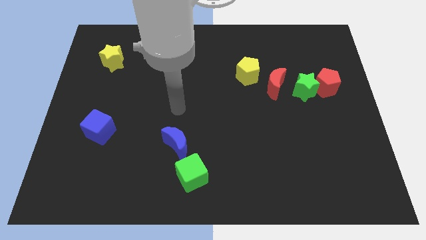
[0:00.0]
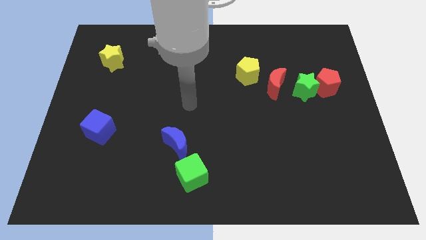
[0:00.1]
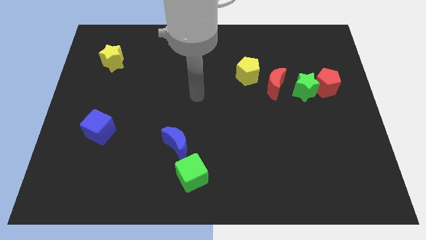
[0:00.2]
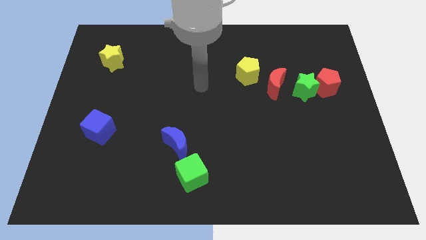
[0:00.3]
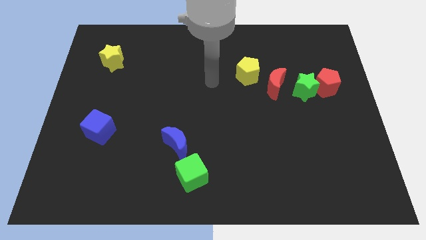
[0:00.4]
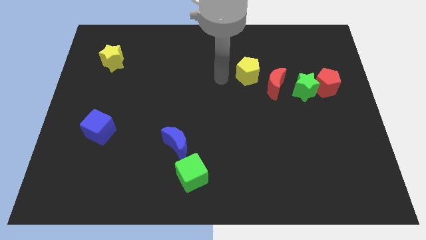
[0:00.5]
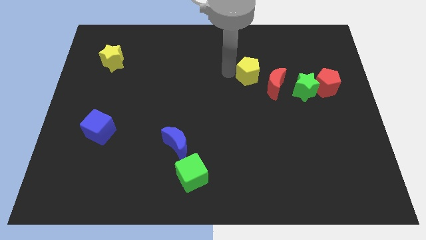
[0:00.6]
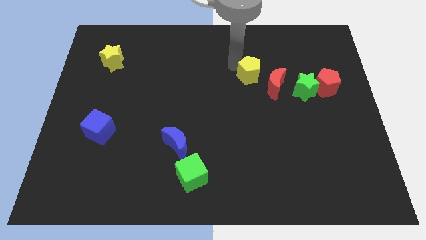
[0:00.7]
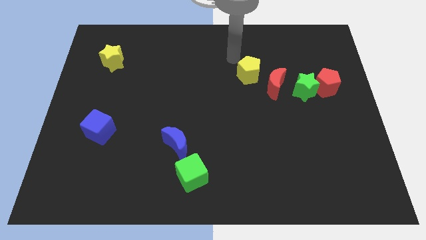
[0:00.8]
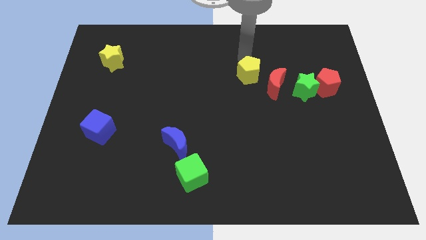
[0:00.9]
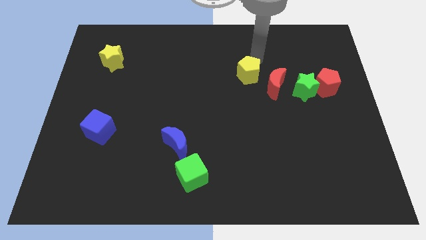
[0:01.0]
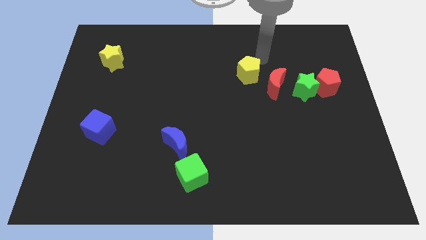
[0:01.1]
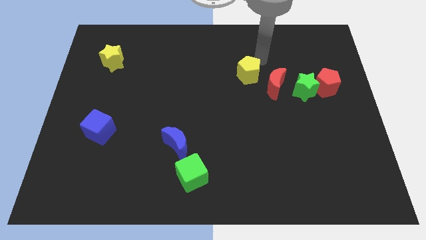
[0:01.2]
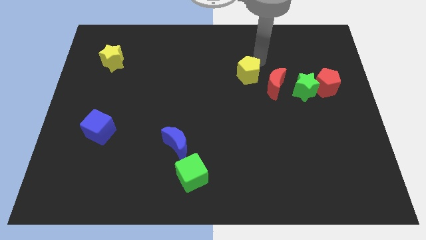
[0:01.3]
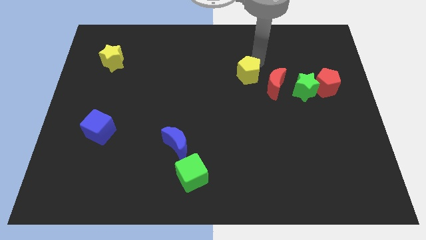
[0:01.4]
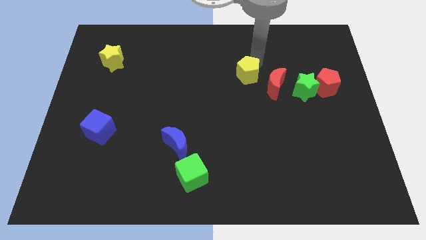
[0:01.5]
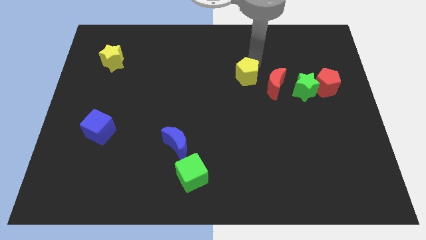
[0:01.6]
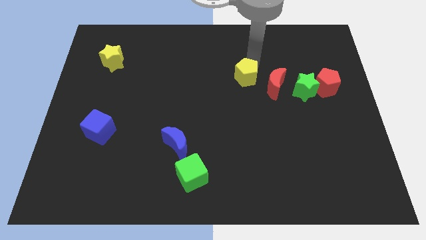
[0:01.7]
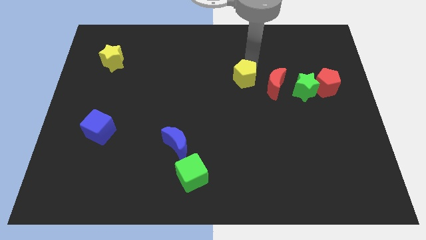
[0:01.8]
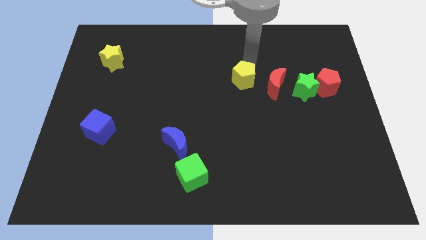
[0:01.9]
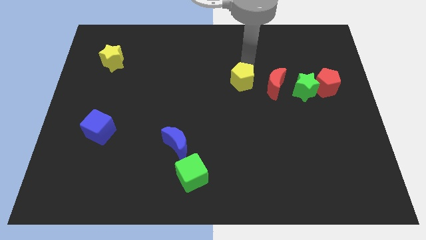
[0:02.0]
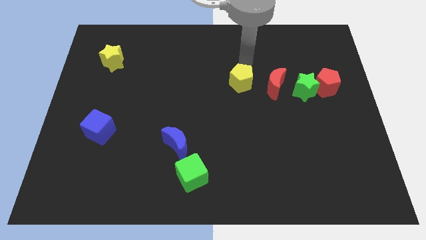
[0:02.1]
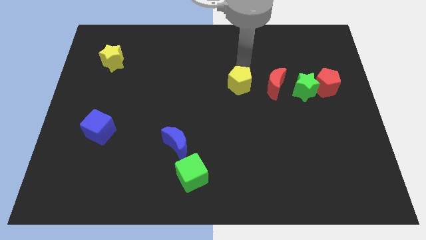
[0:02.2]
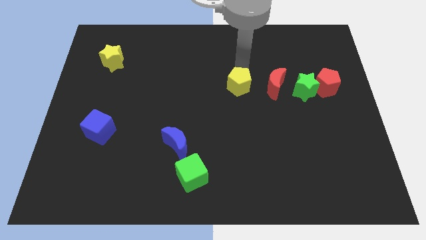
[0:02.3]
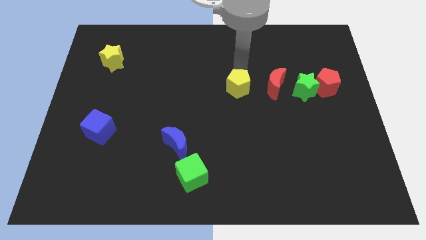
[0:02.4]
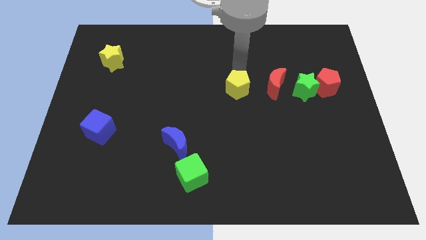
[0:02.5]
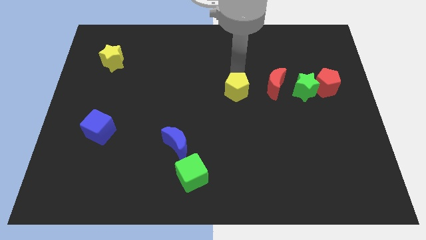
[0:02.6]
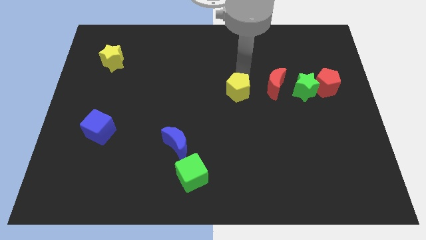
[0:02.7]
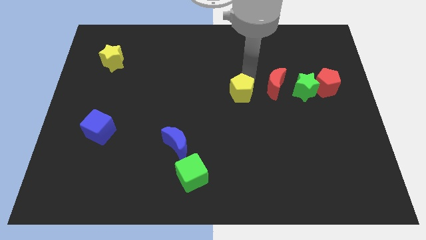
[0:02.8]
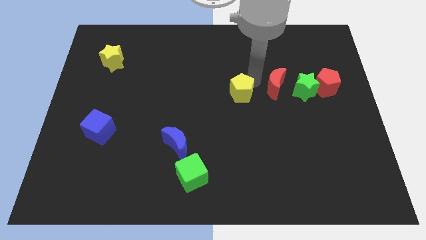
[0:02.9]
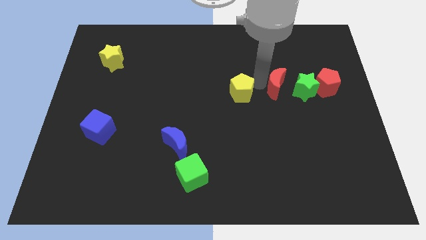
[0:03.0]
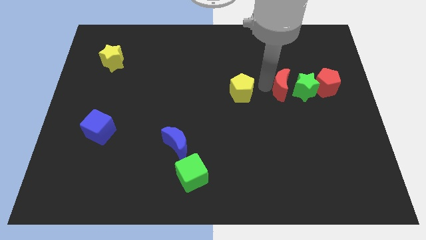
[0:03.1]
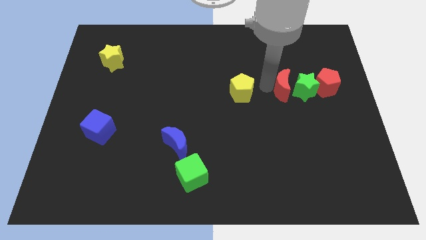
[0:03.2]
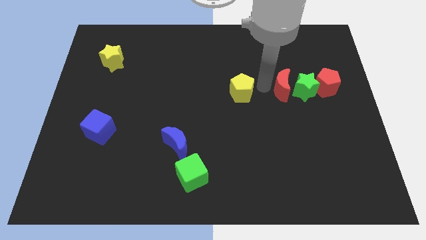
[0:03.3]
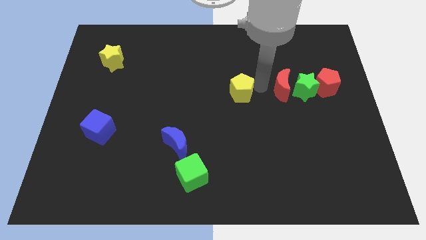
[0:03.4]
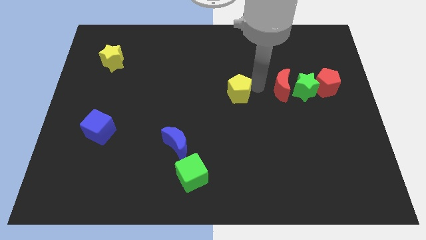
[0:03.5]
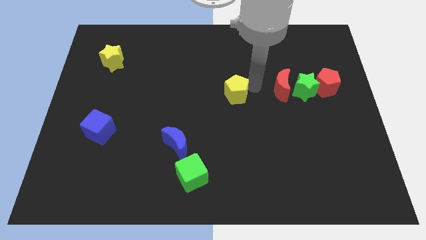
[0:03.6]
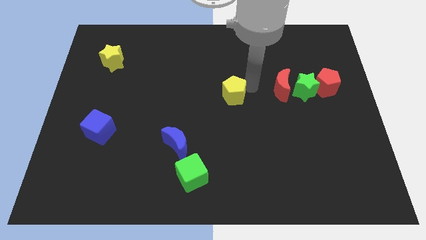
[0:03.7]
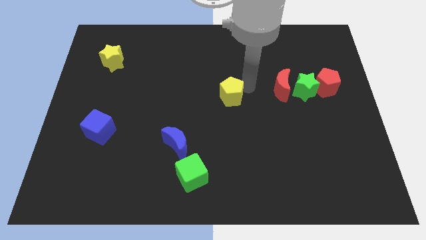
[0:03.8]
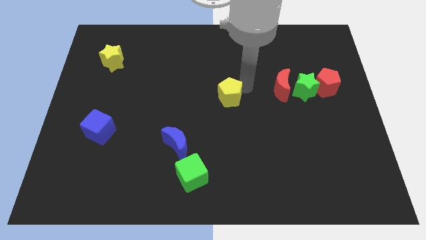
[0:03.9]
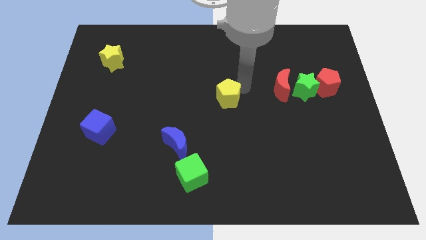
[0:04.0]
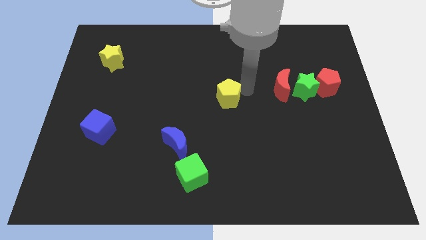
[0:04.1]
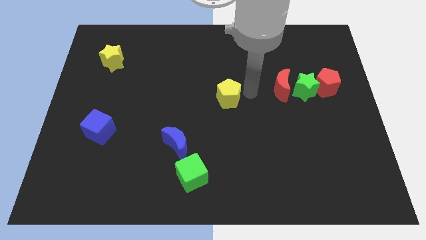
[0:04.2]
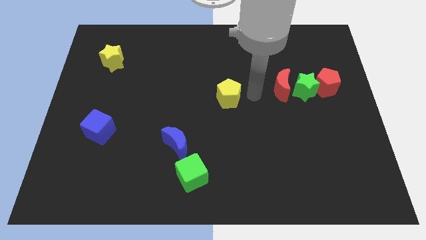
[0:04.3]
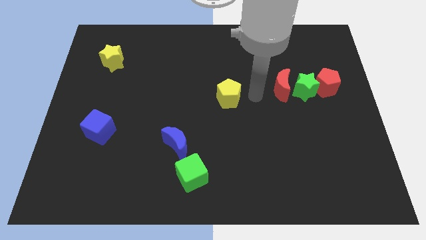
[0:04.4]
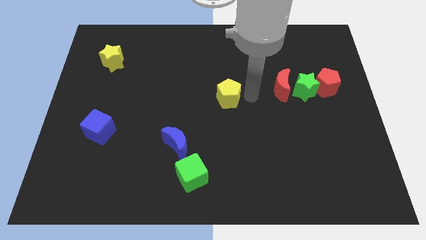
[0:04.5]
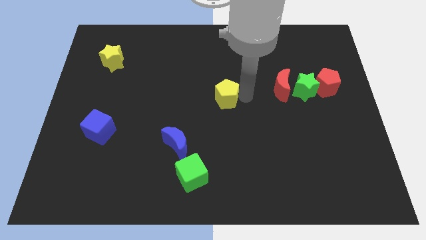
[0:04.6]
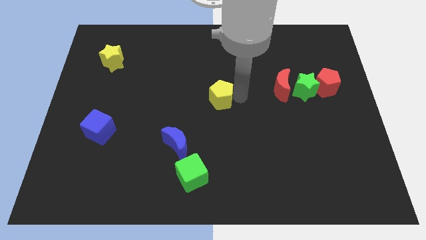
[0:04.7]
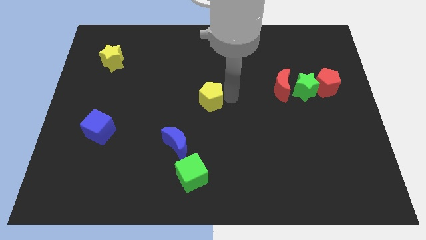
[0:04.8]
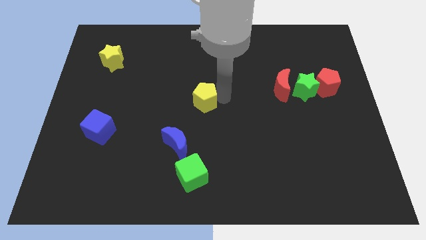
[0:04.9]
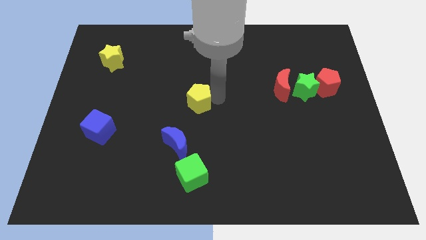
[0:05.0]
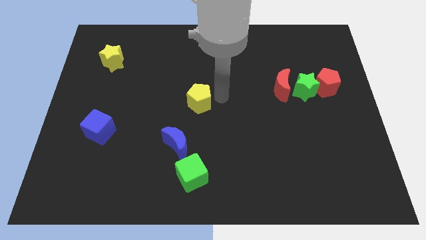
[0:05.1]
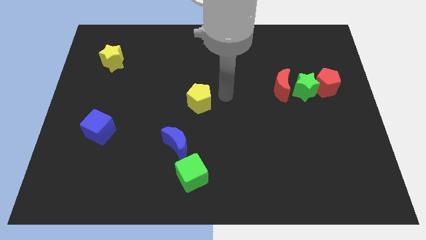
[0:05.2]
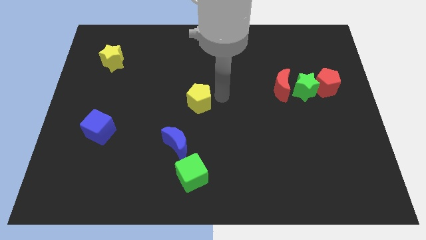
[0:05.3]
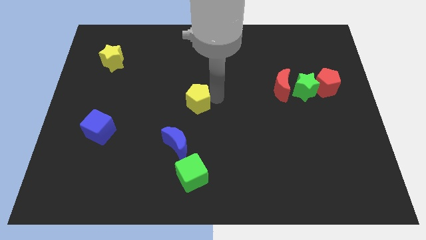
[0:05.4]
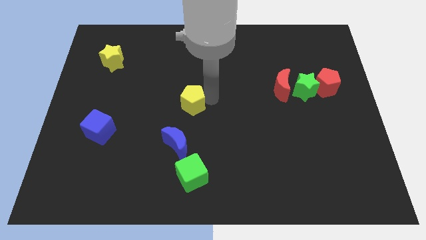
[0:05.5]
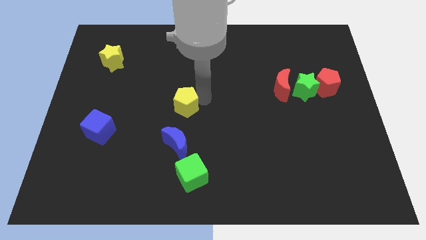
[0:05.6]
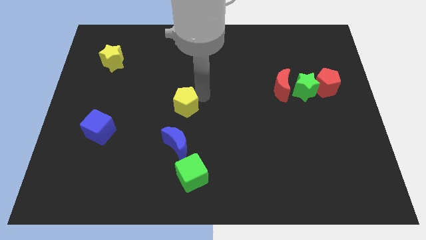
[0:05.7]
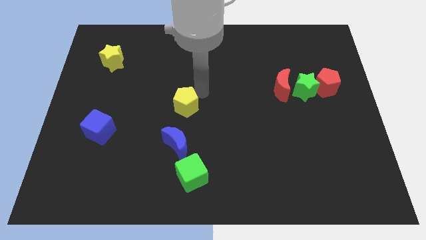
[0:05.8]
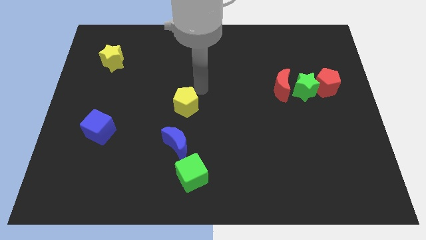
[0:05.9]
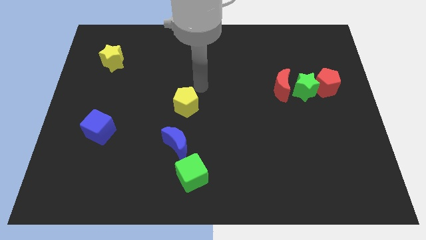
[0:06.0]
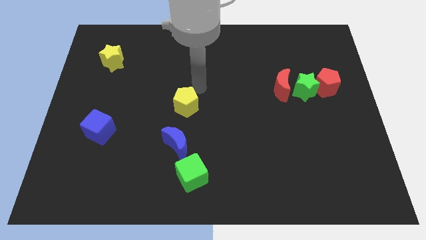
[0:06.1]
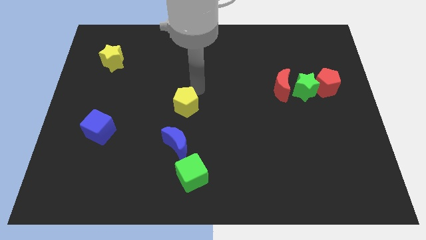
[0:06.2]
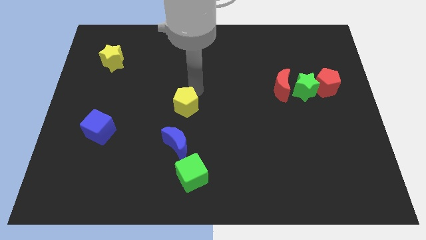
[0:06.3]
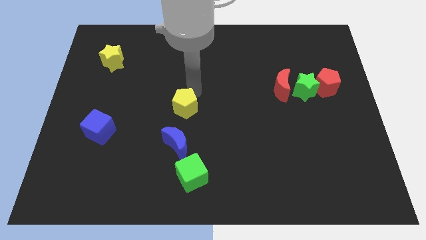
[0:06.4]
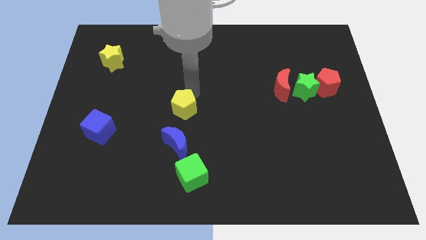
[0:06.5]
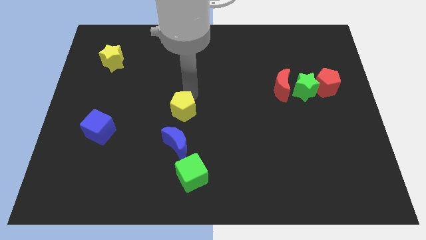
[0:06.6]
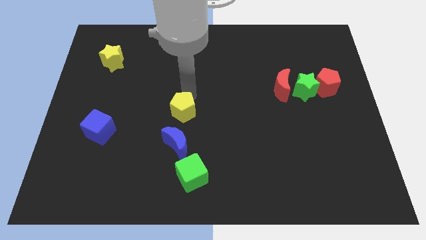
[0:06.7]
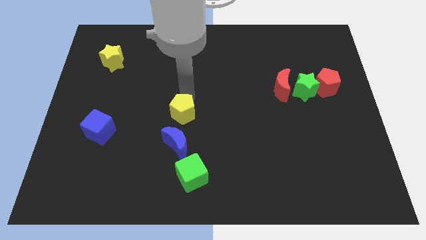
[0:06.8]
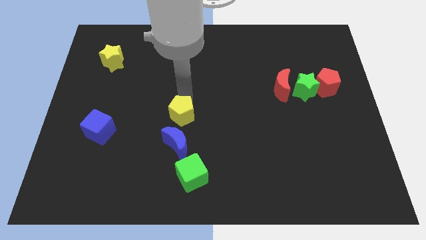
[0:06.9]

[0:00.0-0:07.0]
slide the yellow pentagon downwards and to the left diagonally

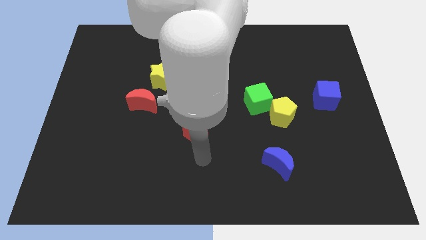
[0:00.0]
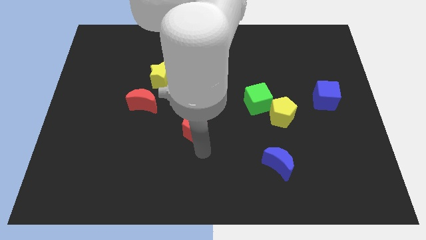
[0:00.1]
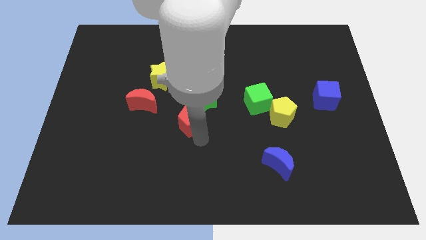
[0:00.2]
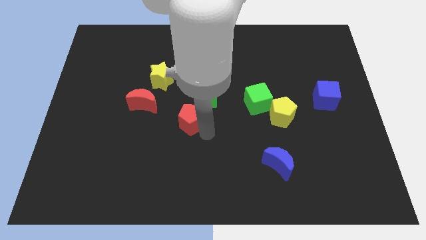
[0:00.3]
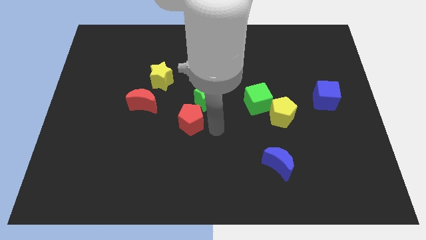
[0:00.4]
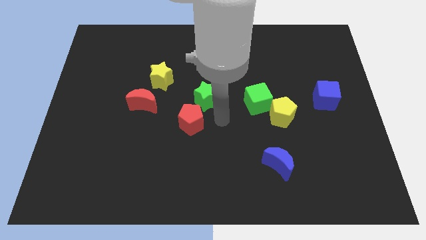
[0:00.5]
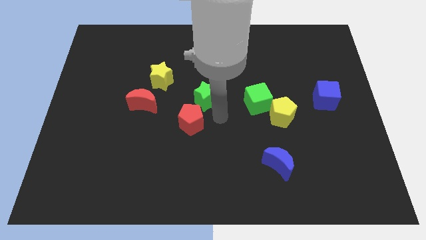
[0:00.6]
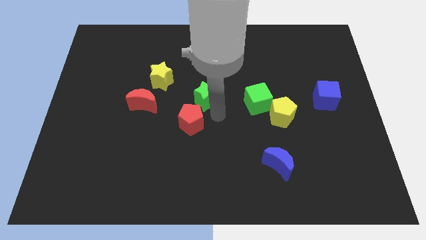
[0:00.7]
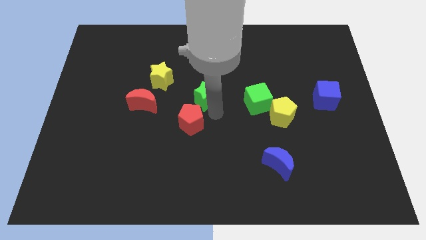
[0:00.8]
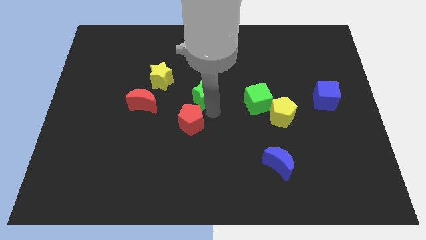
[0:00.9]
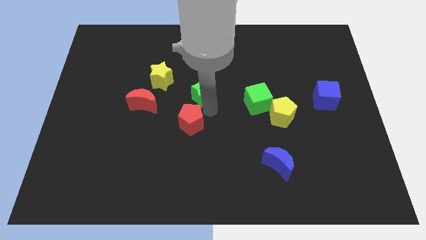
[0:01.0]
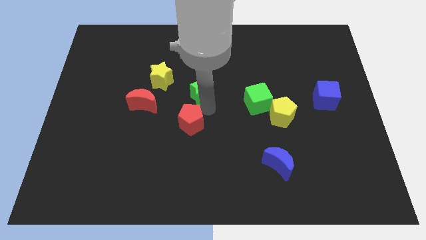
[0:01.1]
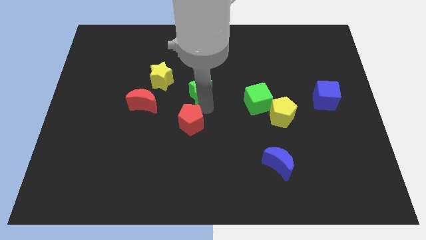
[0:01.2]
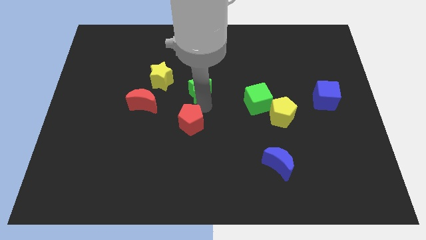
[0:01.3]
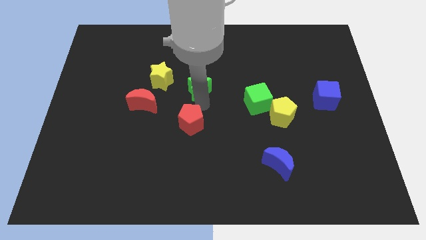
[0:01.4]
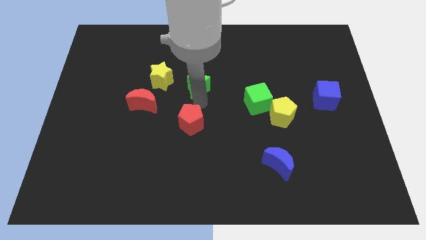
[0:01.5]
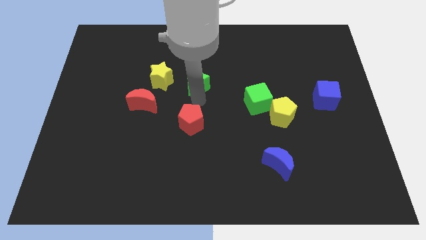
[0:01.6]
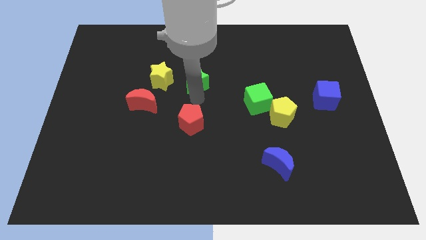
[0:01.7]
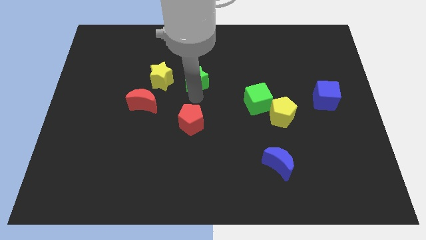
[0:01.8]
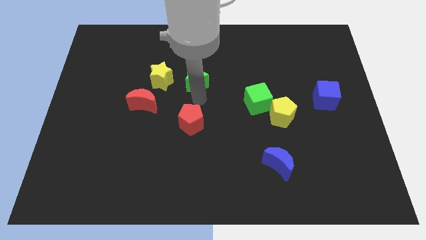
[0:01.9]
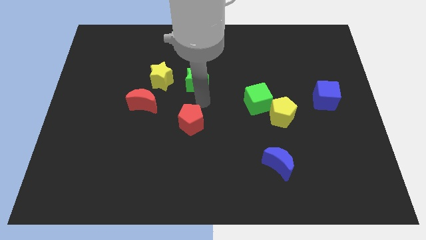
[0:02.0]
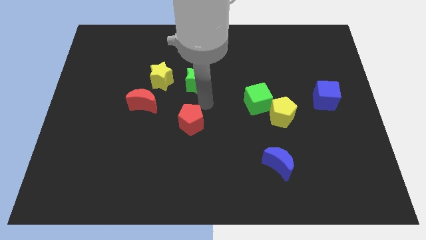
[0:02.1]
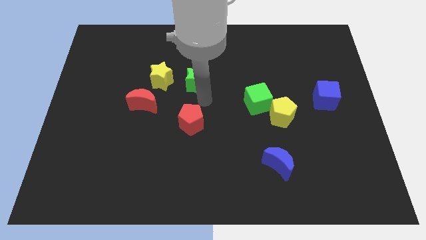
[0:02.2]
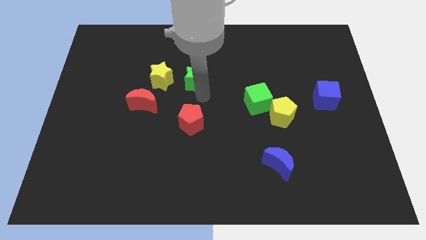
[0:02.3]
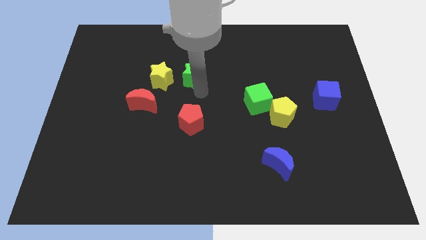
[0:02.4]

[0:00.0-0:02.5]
slightly move the green star diagonally upwards and left
